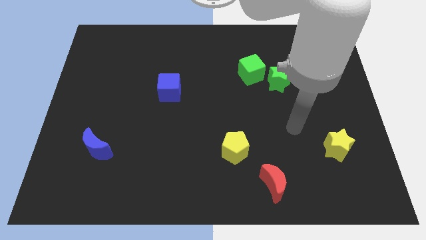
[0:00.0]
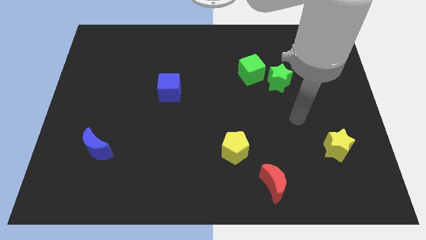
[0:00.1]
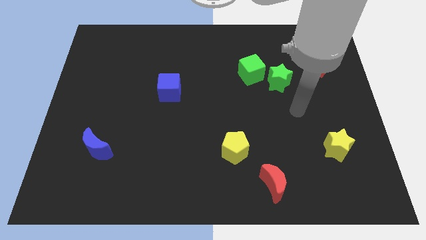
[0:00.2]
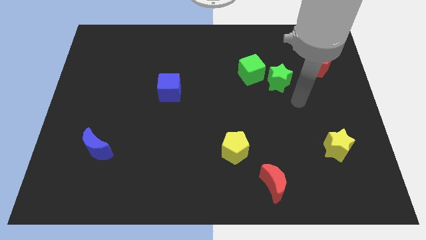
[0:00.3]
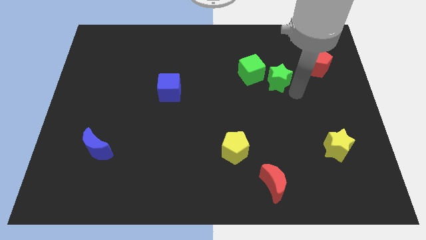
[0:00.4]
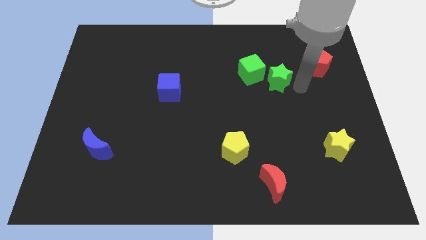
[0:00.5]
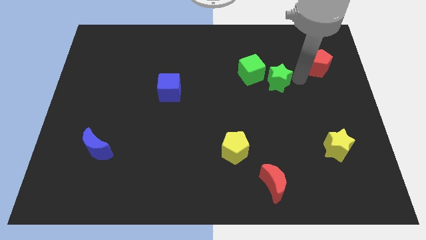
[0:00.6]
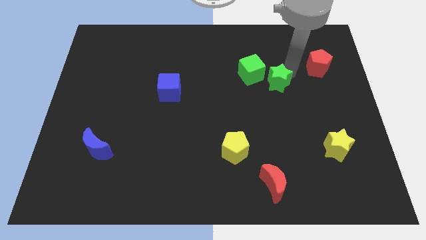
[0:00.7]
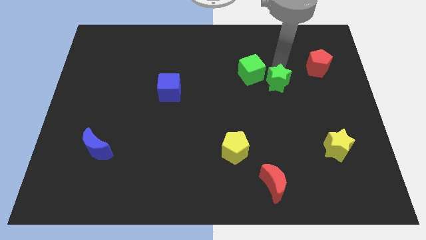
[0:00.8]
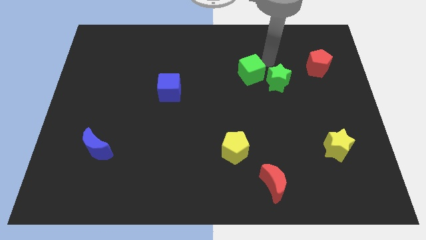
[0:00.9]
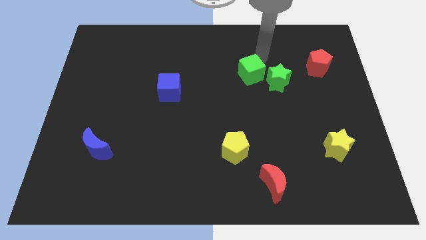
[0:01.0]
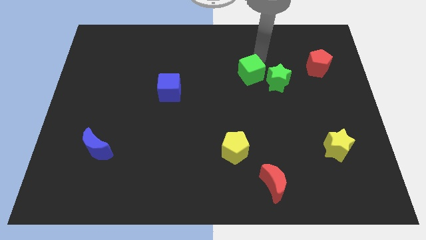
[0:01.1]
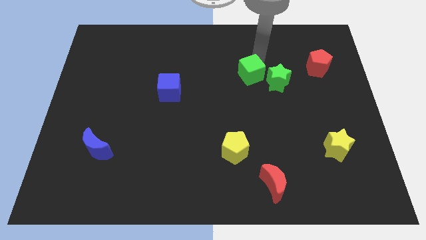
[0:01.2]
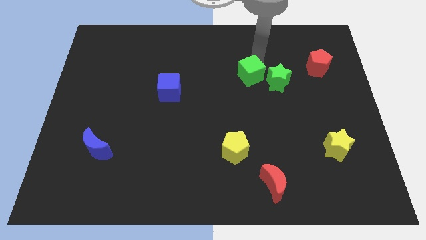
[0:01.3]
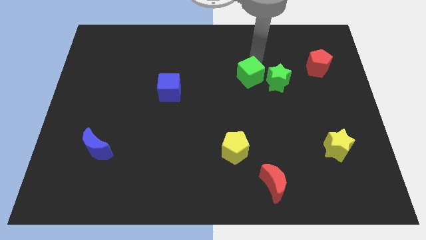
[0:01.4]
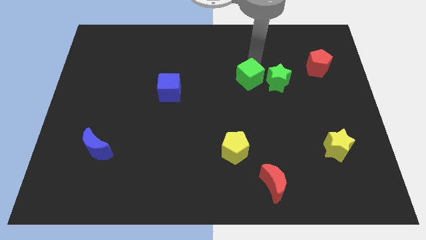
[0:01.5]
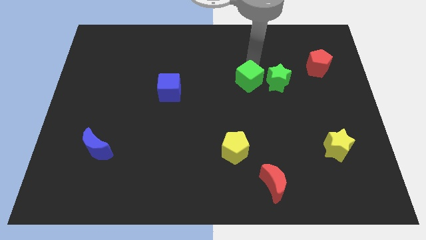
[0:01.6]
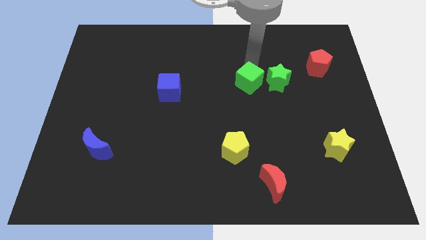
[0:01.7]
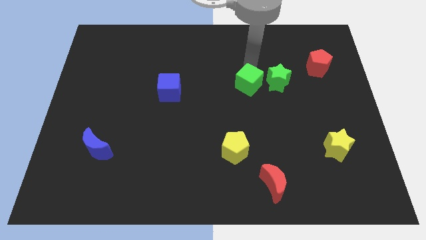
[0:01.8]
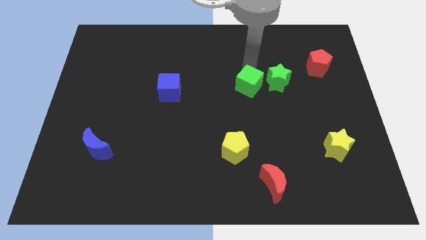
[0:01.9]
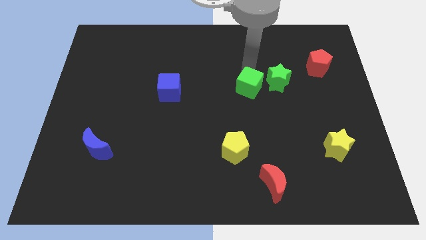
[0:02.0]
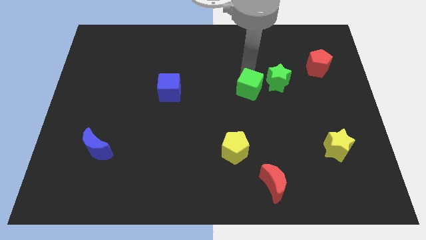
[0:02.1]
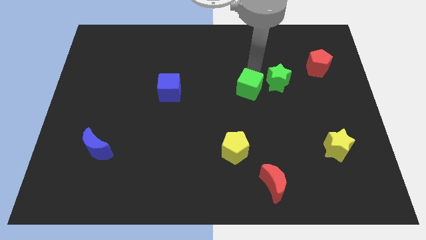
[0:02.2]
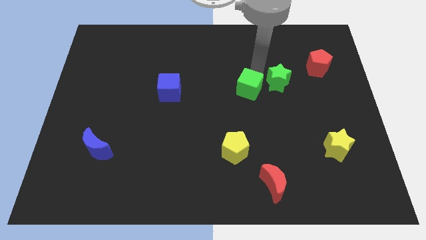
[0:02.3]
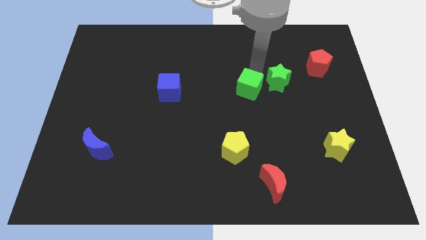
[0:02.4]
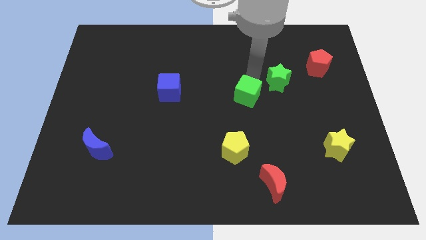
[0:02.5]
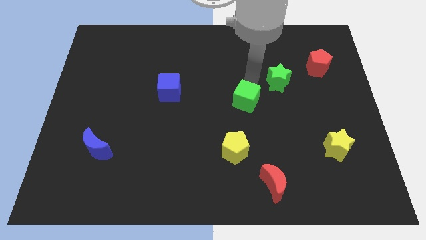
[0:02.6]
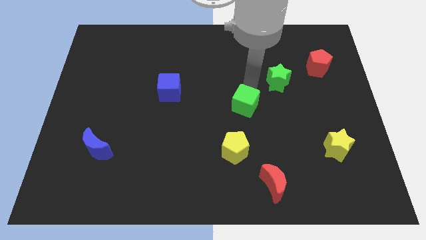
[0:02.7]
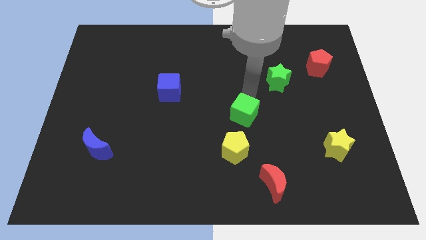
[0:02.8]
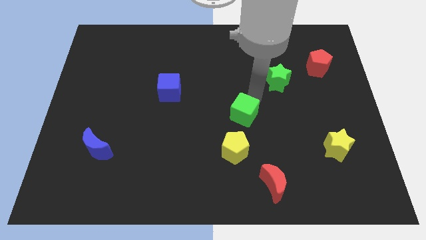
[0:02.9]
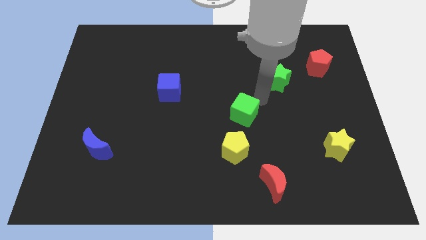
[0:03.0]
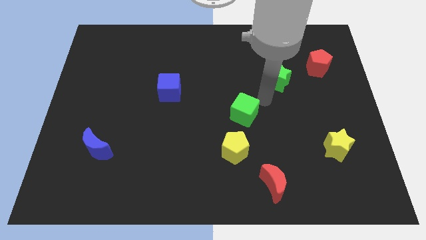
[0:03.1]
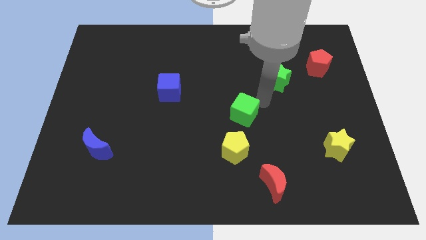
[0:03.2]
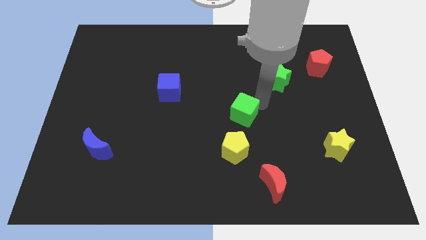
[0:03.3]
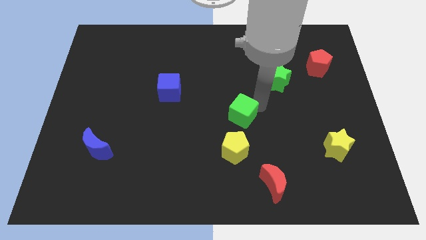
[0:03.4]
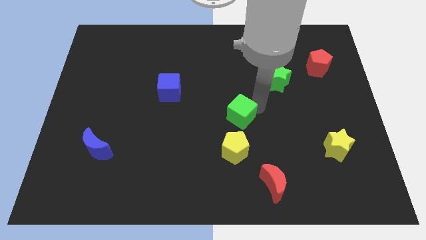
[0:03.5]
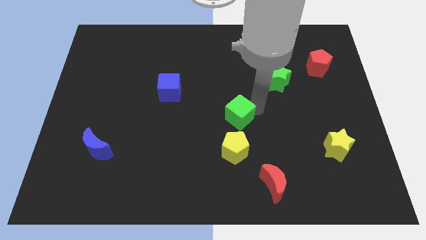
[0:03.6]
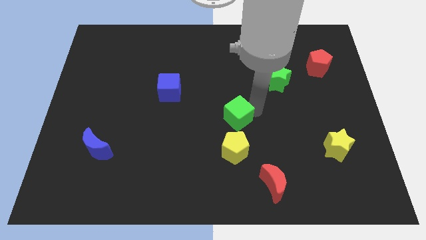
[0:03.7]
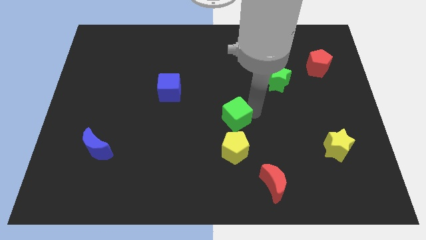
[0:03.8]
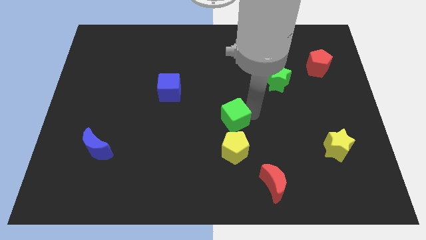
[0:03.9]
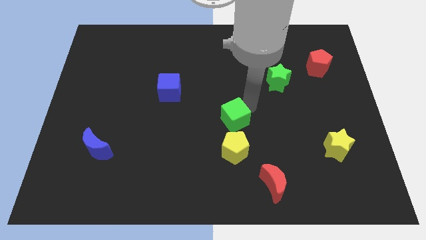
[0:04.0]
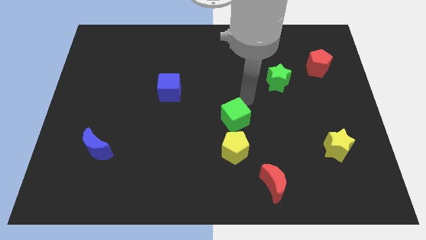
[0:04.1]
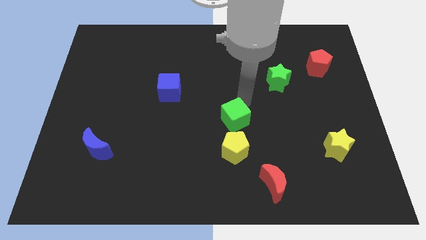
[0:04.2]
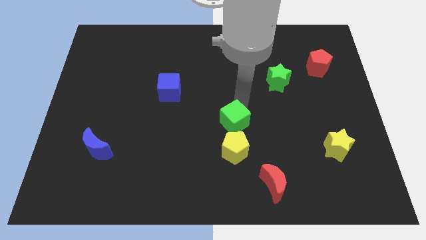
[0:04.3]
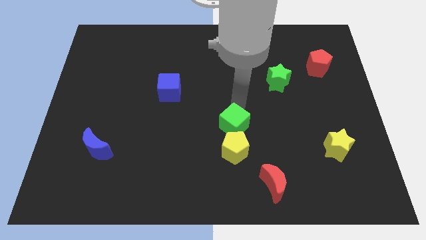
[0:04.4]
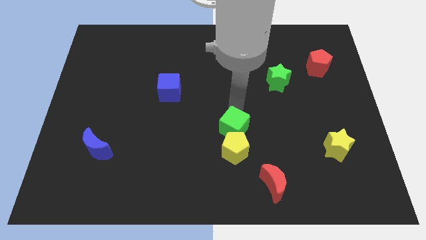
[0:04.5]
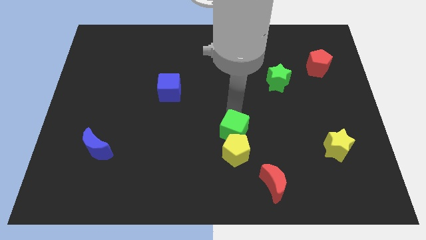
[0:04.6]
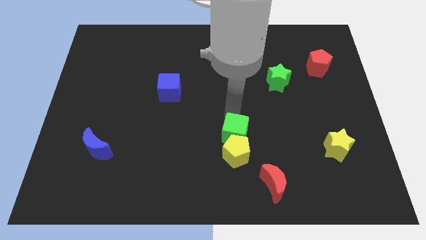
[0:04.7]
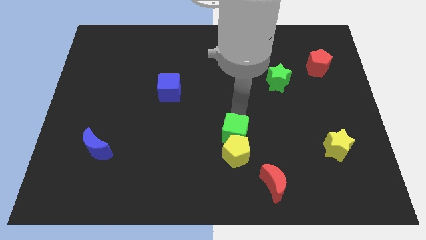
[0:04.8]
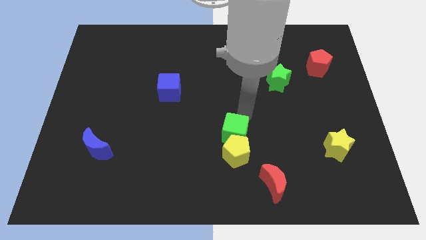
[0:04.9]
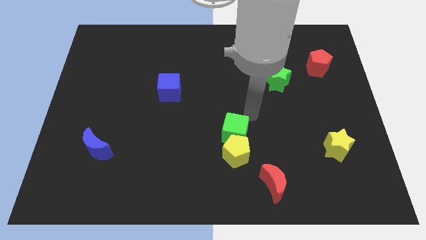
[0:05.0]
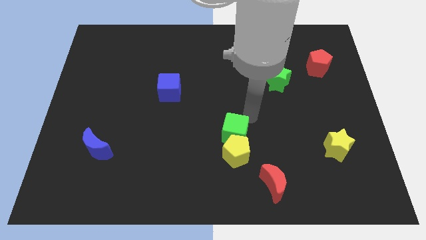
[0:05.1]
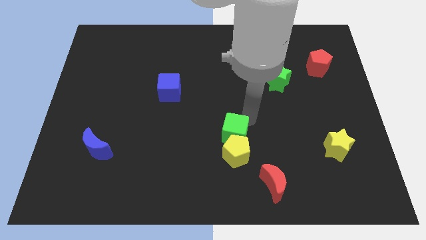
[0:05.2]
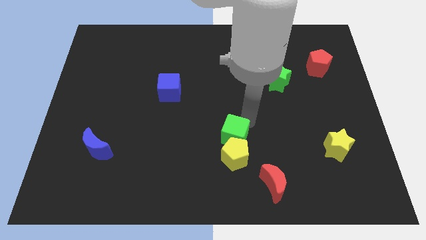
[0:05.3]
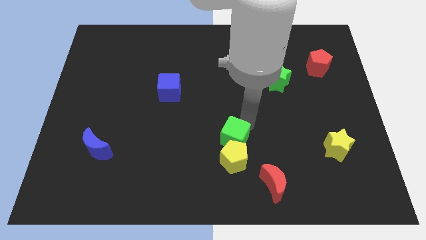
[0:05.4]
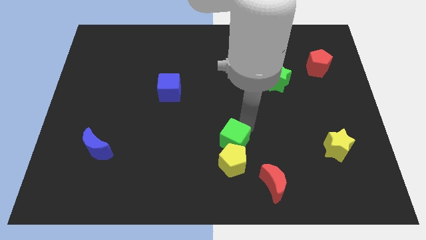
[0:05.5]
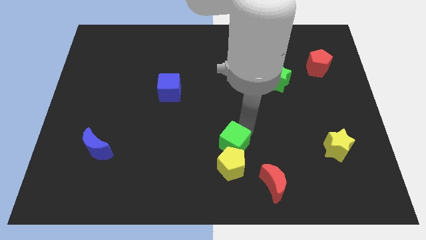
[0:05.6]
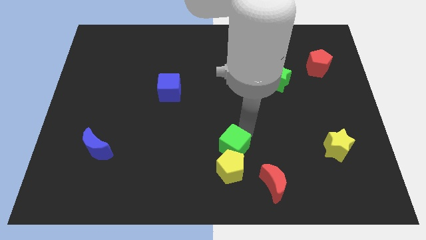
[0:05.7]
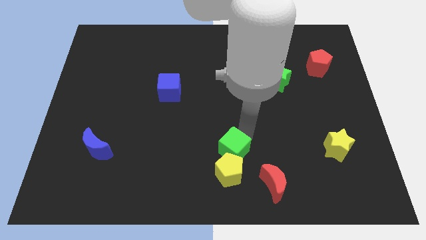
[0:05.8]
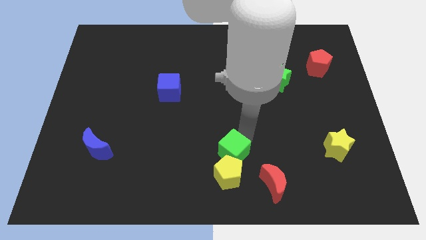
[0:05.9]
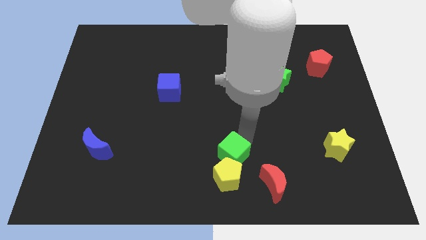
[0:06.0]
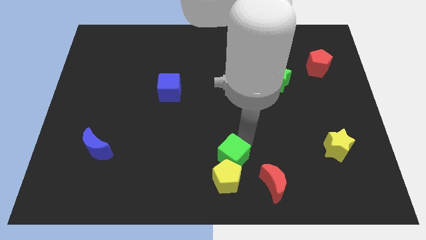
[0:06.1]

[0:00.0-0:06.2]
push the green cube to the bottom

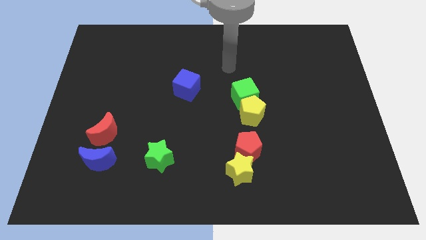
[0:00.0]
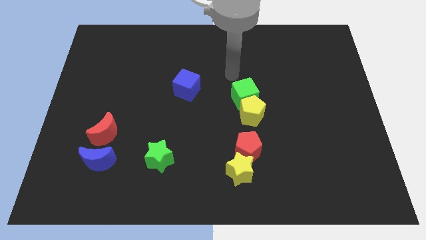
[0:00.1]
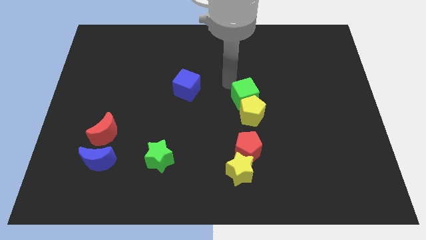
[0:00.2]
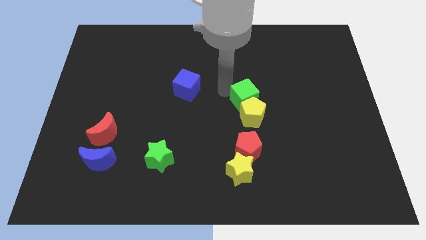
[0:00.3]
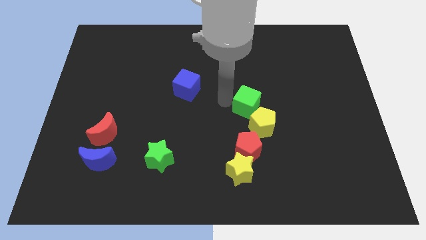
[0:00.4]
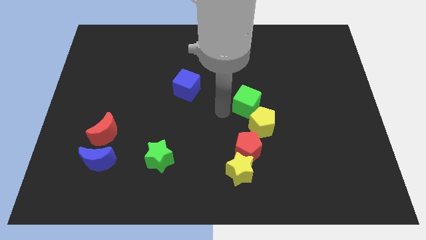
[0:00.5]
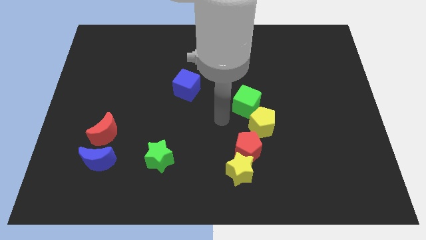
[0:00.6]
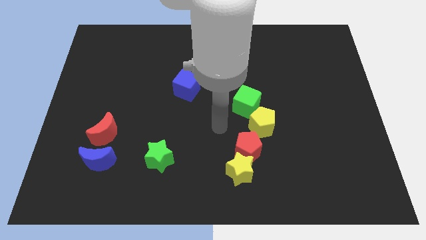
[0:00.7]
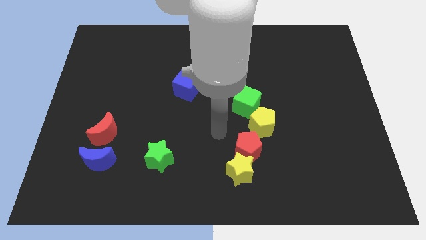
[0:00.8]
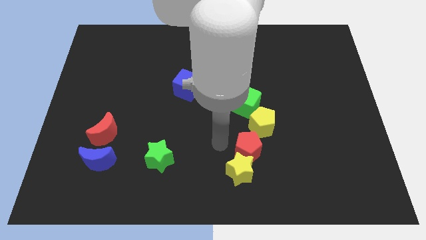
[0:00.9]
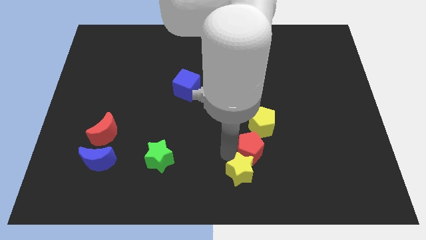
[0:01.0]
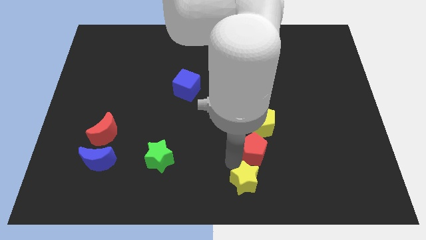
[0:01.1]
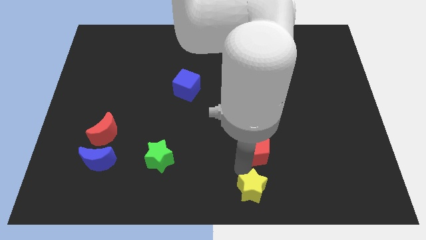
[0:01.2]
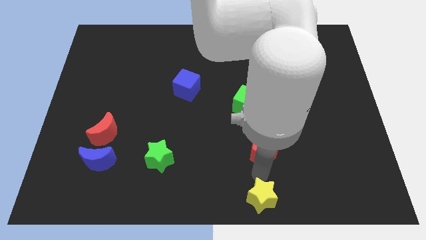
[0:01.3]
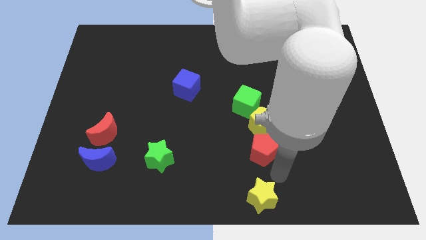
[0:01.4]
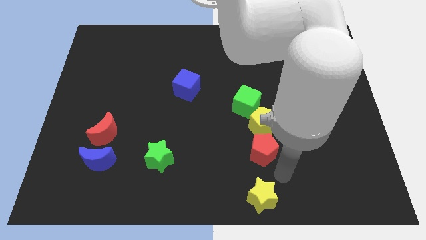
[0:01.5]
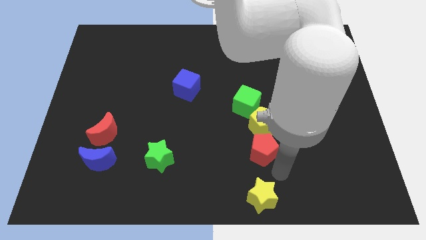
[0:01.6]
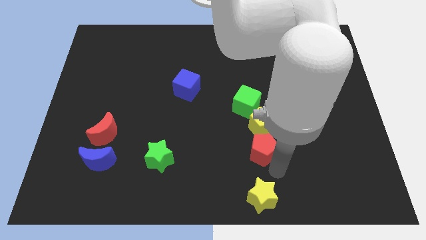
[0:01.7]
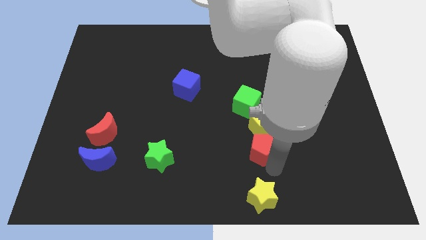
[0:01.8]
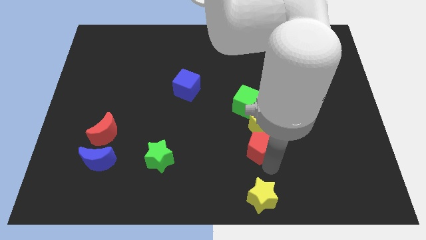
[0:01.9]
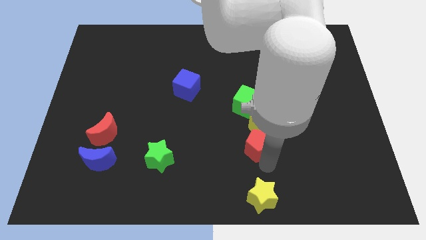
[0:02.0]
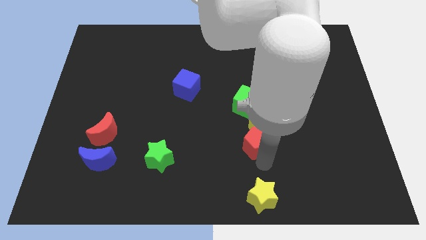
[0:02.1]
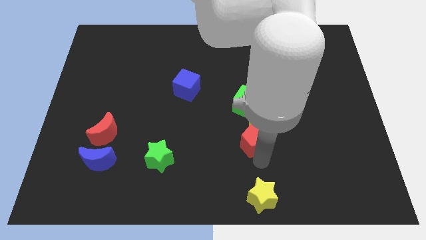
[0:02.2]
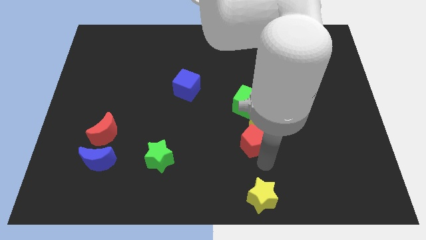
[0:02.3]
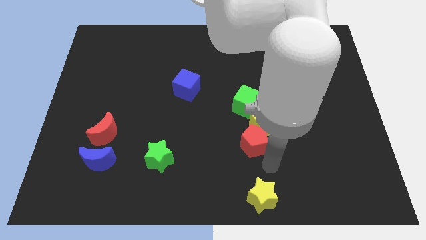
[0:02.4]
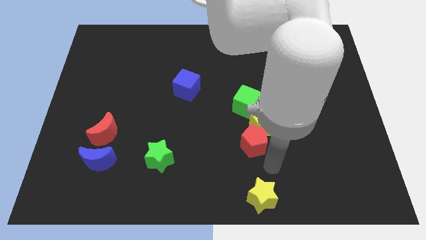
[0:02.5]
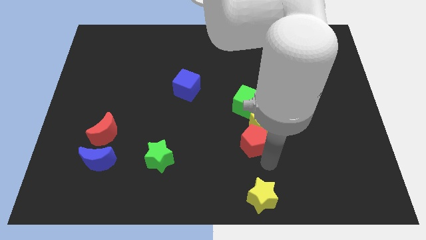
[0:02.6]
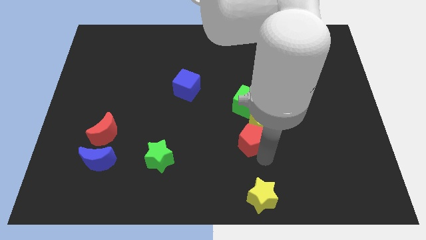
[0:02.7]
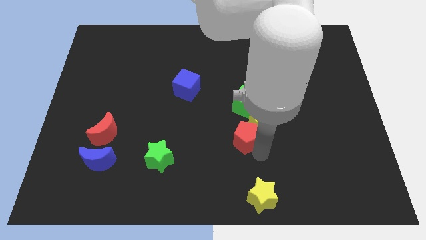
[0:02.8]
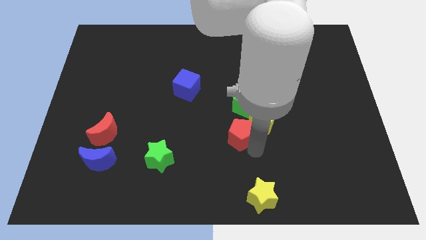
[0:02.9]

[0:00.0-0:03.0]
put the red pentagon to the center
